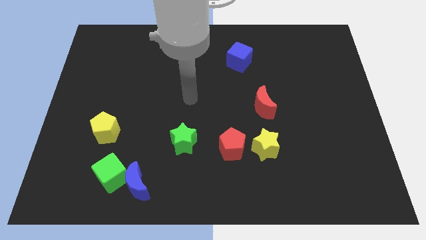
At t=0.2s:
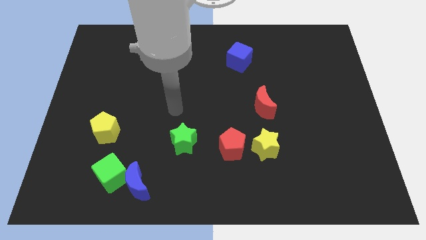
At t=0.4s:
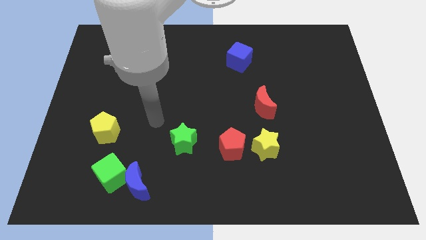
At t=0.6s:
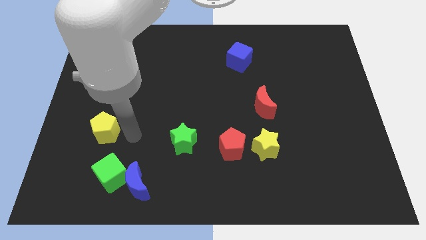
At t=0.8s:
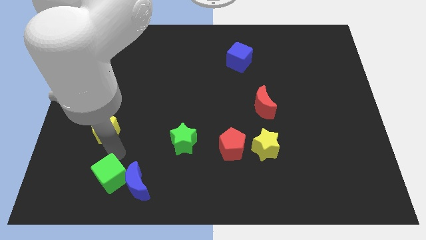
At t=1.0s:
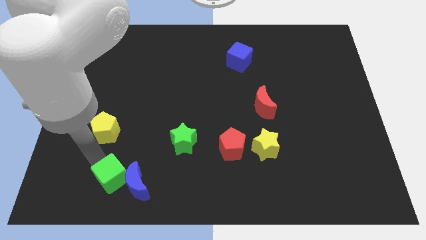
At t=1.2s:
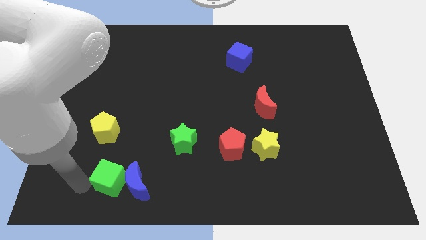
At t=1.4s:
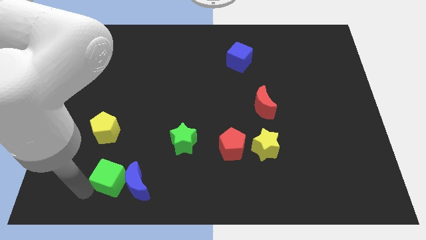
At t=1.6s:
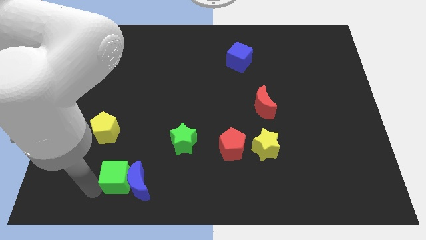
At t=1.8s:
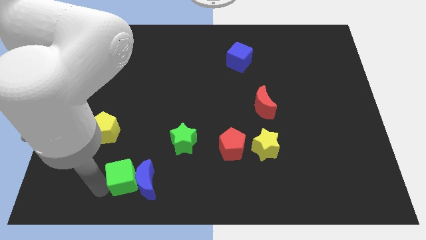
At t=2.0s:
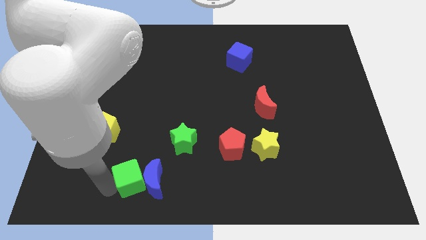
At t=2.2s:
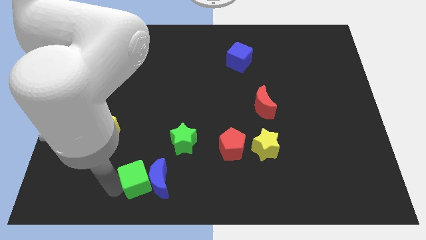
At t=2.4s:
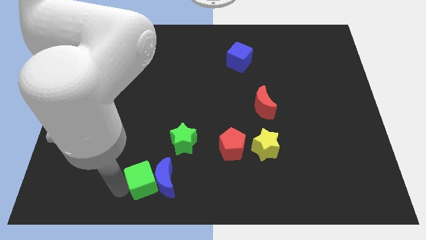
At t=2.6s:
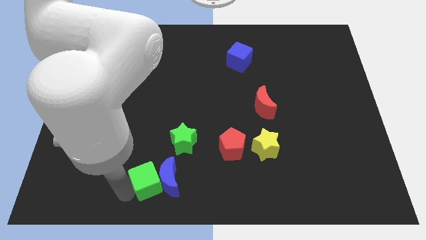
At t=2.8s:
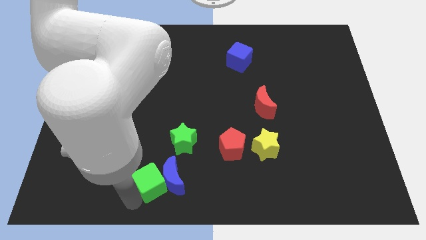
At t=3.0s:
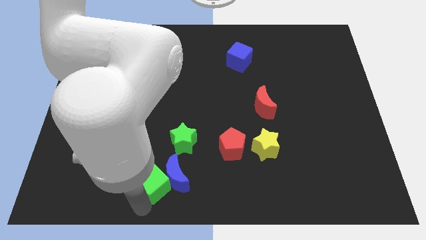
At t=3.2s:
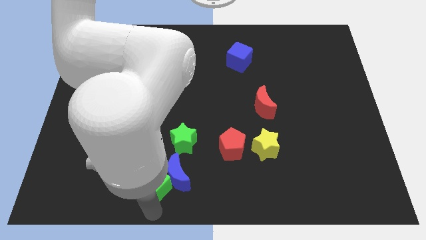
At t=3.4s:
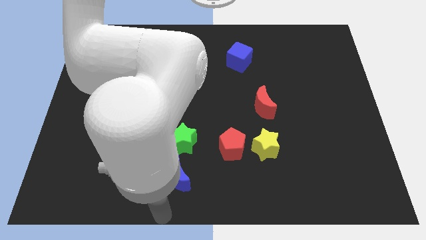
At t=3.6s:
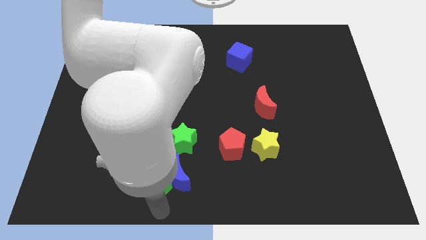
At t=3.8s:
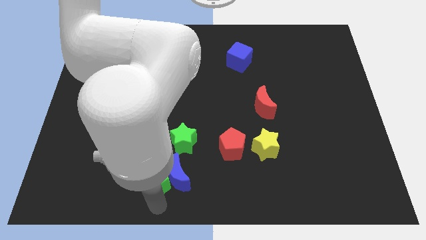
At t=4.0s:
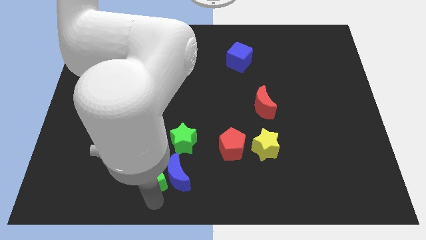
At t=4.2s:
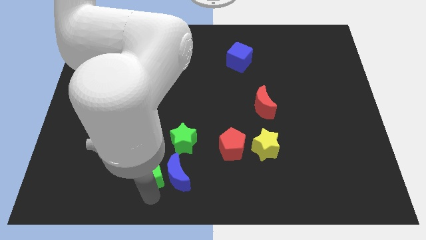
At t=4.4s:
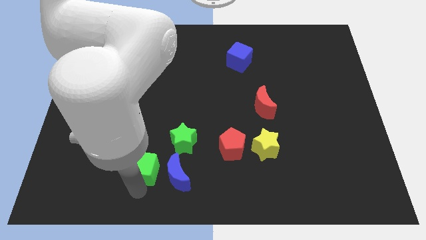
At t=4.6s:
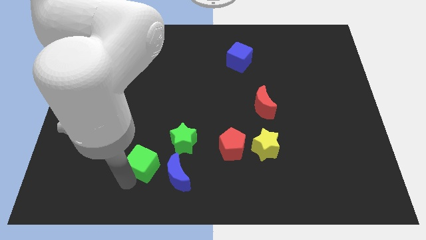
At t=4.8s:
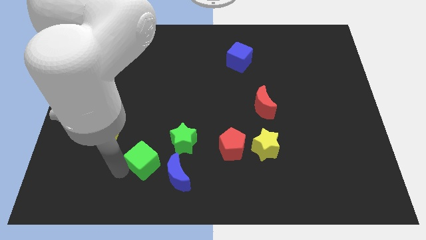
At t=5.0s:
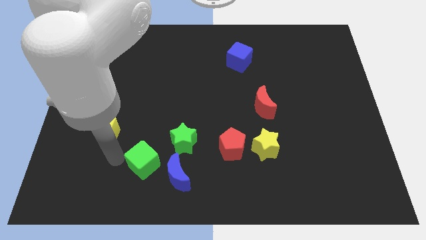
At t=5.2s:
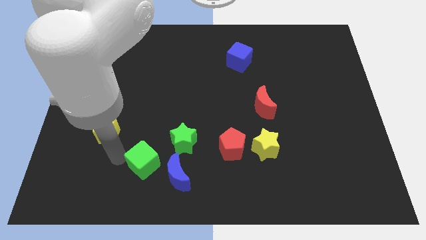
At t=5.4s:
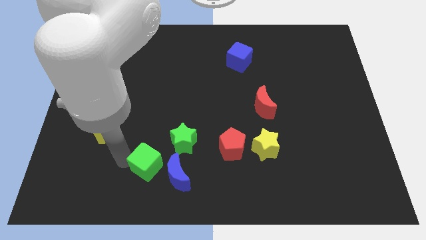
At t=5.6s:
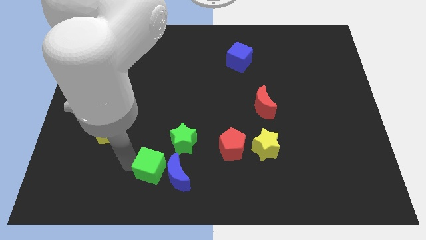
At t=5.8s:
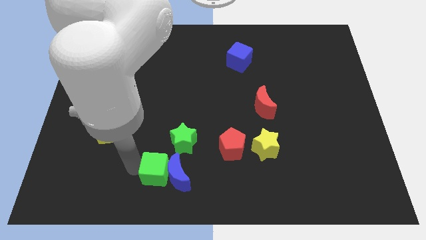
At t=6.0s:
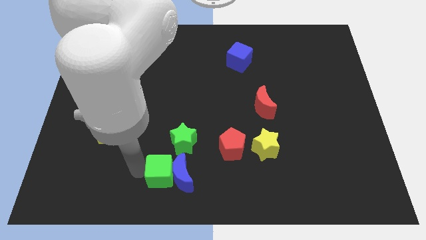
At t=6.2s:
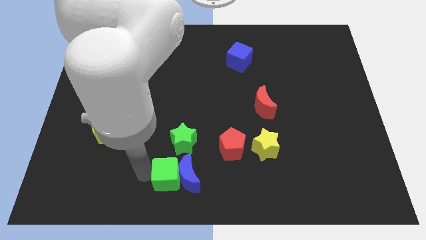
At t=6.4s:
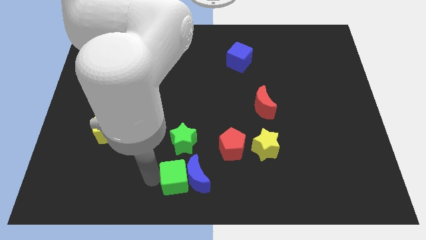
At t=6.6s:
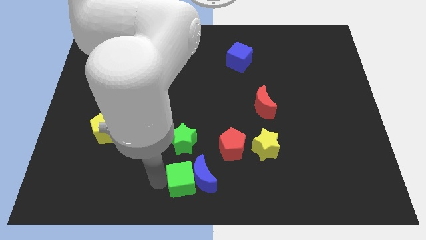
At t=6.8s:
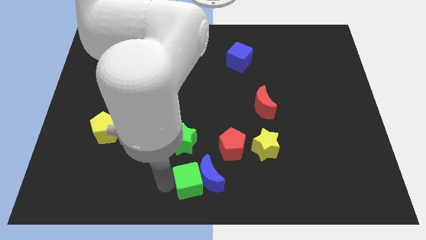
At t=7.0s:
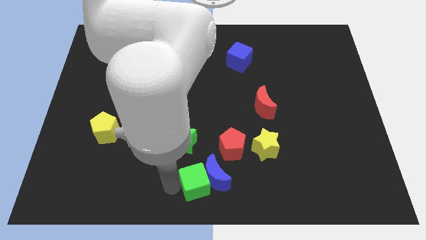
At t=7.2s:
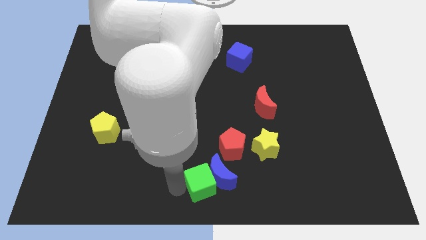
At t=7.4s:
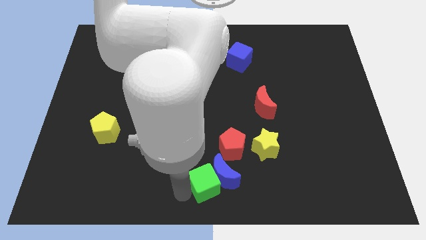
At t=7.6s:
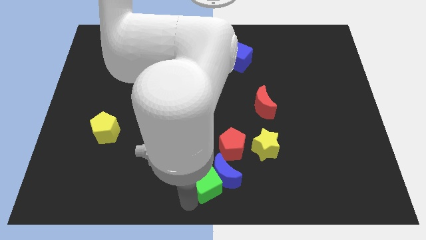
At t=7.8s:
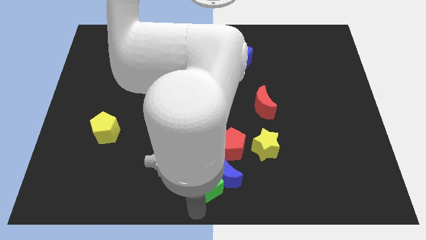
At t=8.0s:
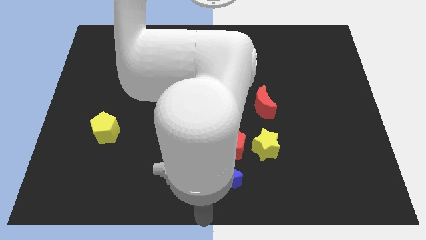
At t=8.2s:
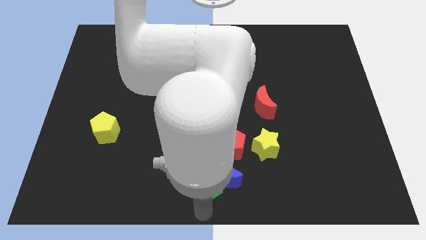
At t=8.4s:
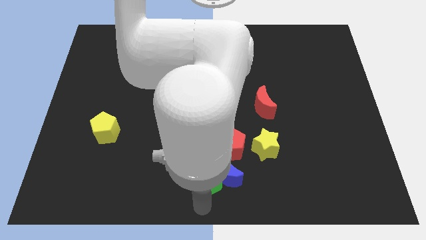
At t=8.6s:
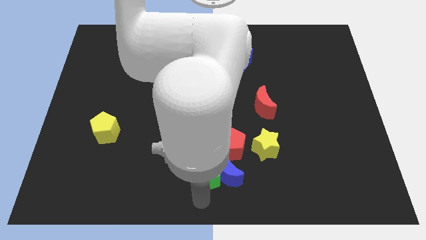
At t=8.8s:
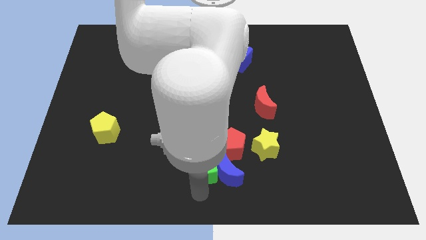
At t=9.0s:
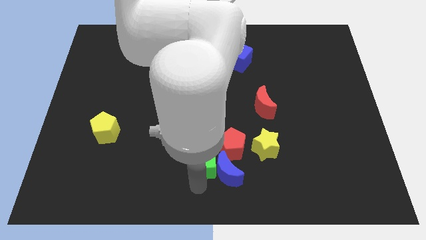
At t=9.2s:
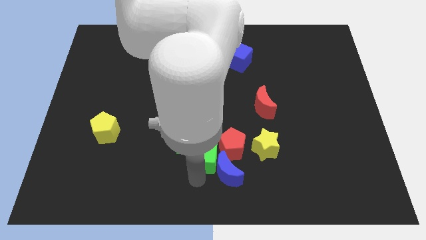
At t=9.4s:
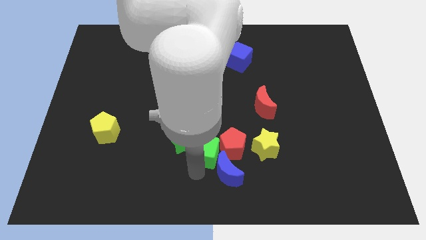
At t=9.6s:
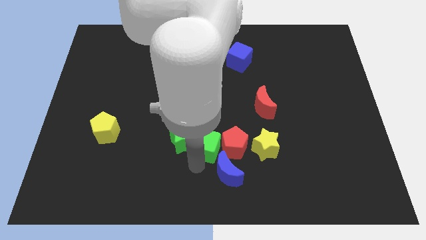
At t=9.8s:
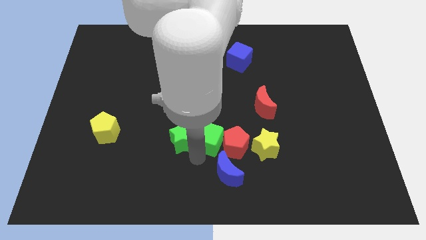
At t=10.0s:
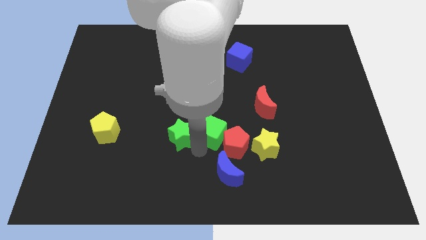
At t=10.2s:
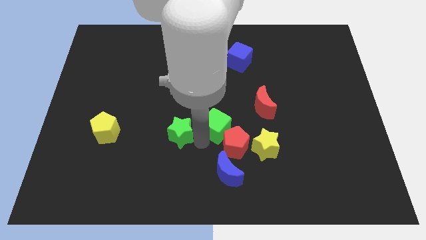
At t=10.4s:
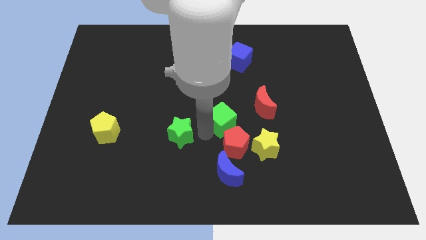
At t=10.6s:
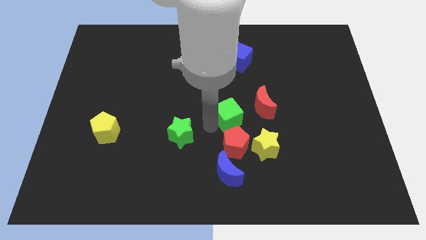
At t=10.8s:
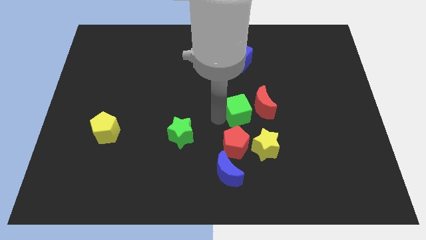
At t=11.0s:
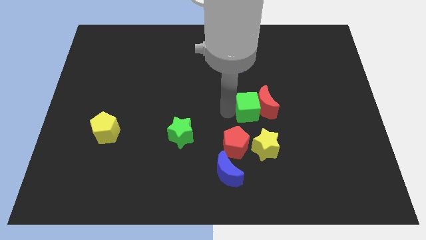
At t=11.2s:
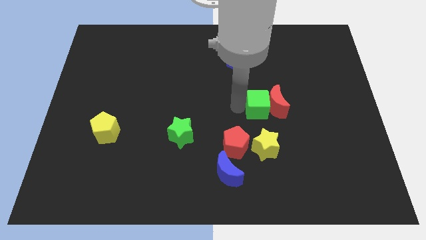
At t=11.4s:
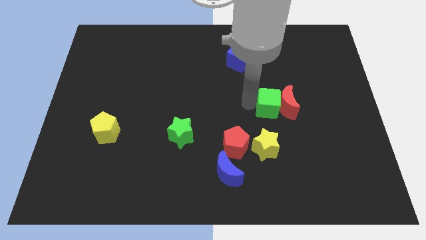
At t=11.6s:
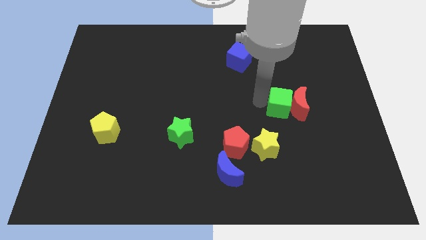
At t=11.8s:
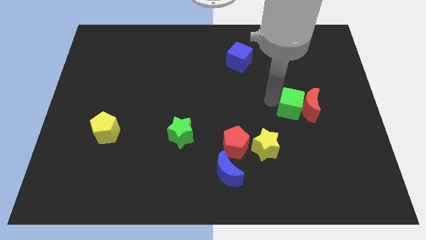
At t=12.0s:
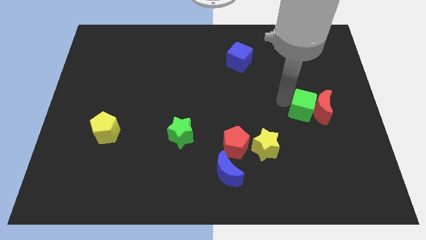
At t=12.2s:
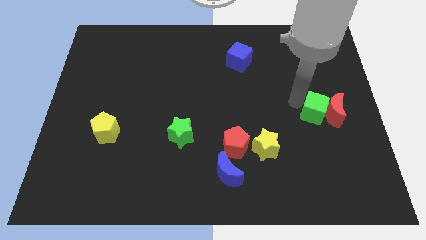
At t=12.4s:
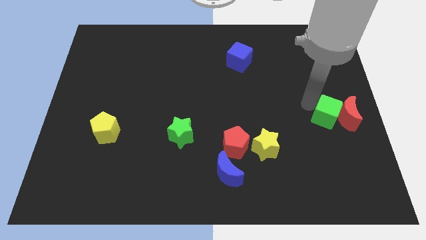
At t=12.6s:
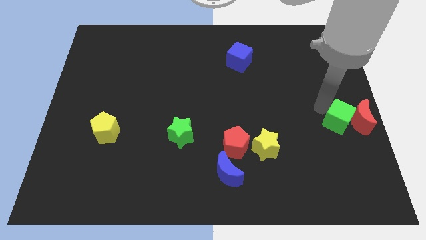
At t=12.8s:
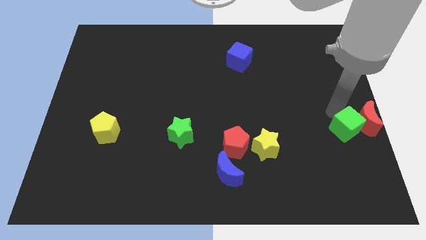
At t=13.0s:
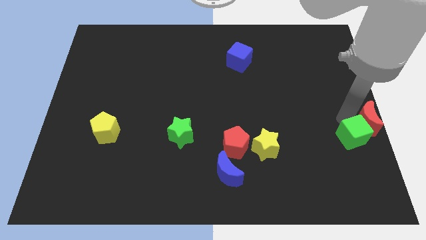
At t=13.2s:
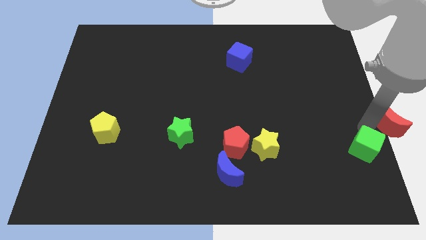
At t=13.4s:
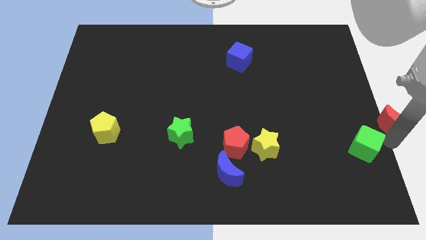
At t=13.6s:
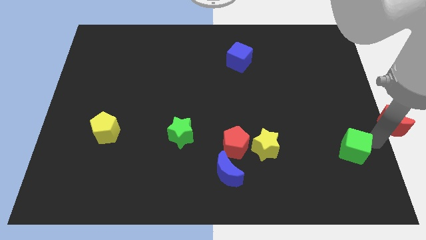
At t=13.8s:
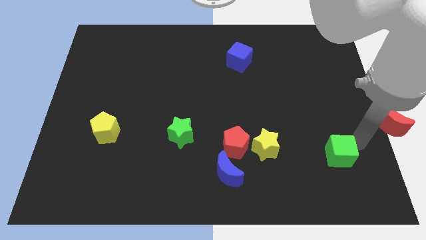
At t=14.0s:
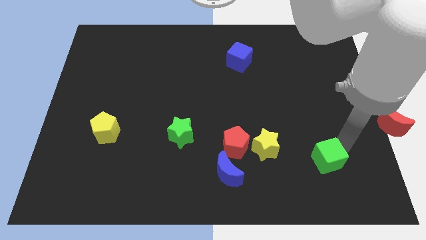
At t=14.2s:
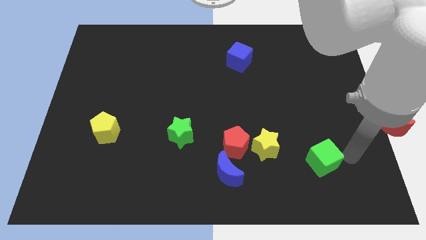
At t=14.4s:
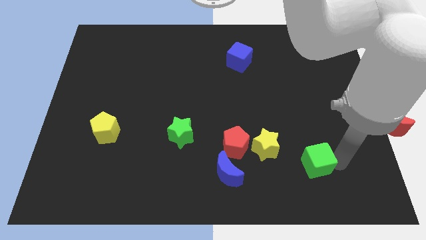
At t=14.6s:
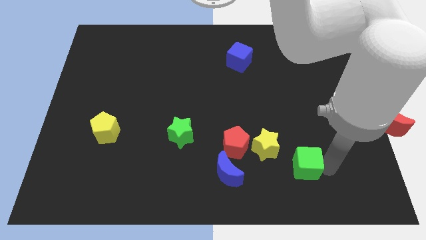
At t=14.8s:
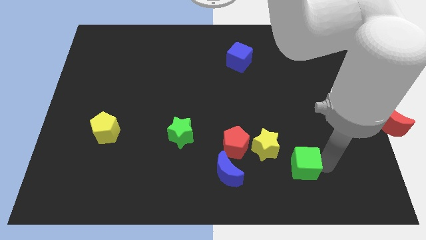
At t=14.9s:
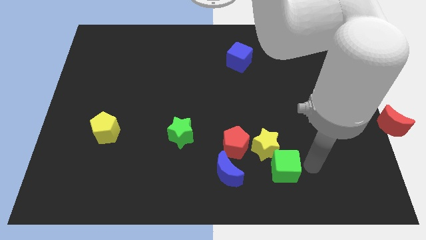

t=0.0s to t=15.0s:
move the green cube towards the yellow star
